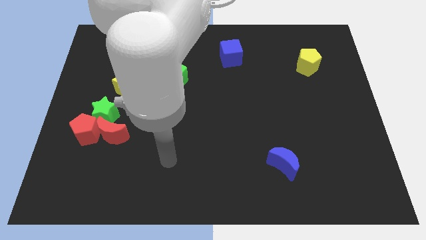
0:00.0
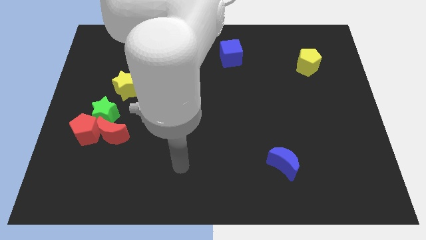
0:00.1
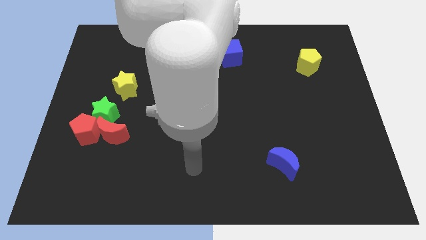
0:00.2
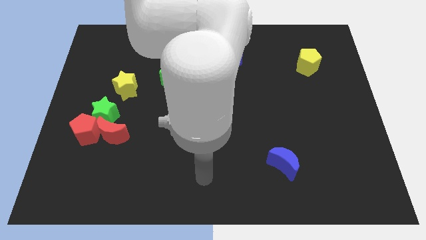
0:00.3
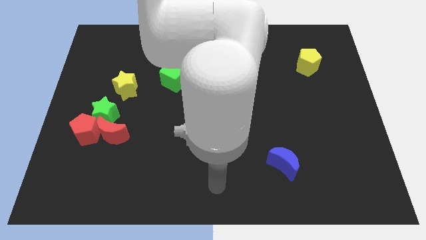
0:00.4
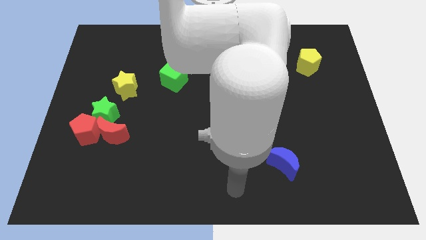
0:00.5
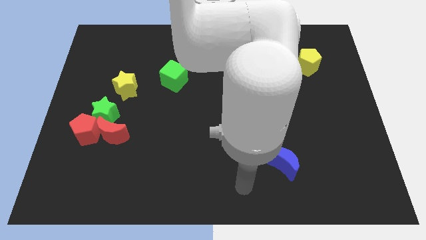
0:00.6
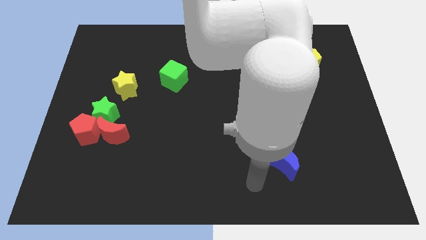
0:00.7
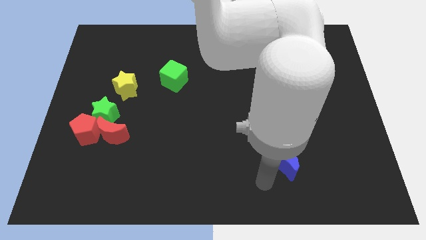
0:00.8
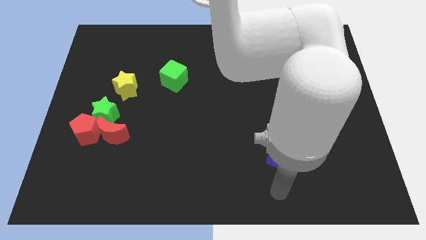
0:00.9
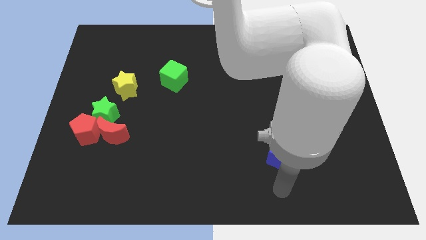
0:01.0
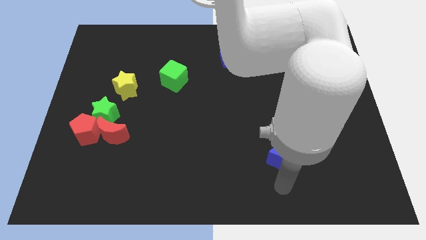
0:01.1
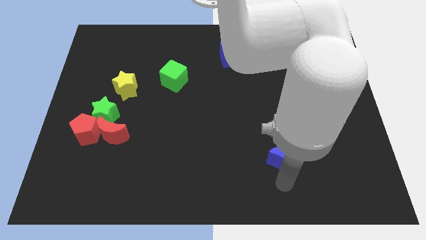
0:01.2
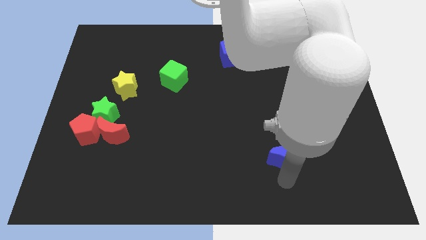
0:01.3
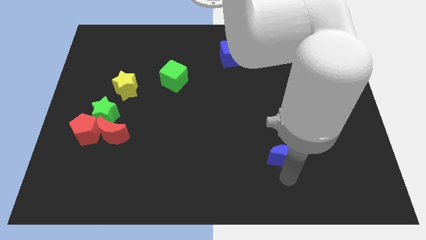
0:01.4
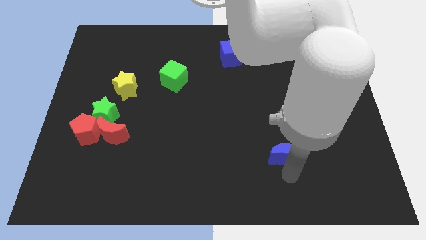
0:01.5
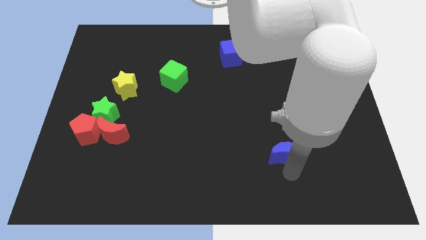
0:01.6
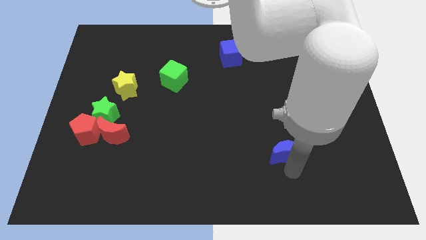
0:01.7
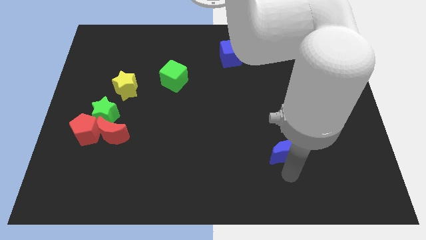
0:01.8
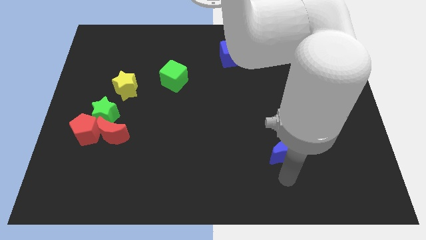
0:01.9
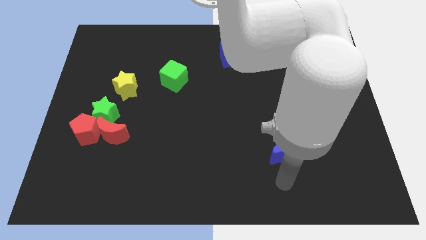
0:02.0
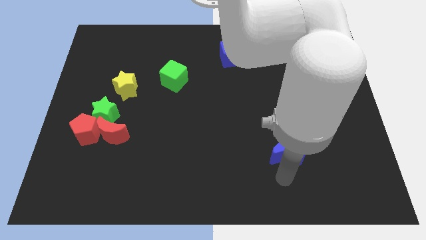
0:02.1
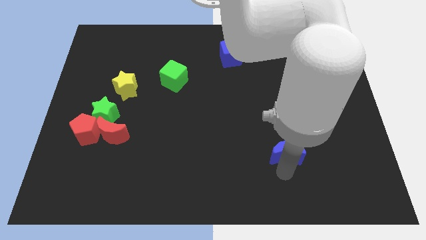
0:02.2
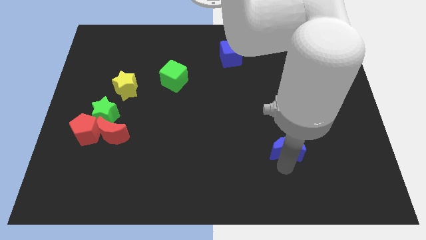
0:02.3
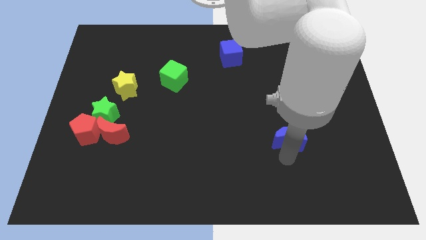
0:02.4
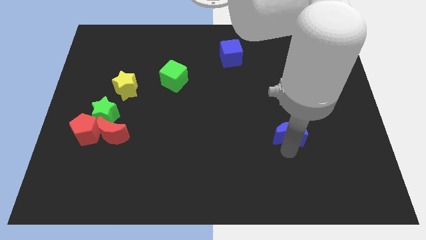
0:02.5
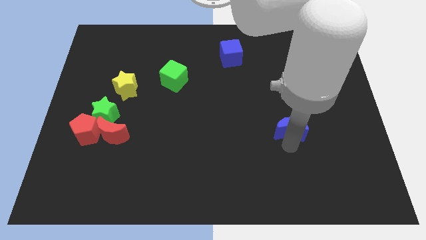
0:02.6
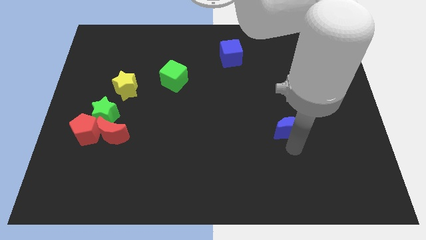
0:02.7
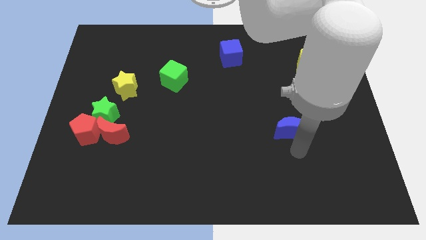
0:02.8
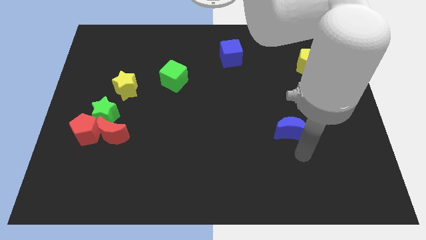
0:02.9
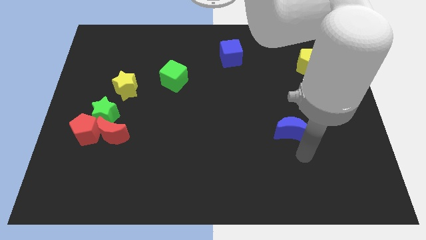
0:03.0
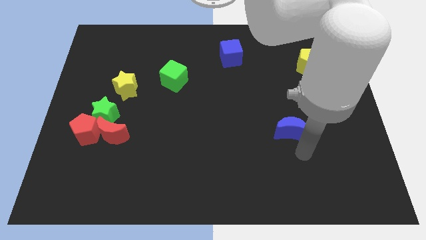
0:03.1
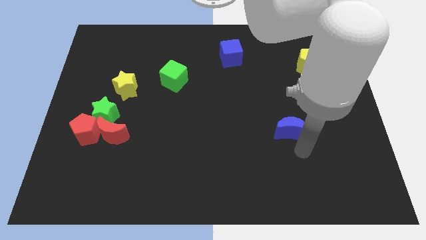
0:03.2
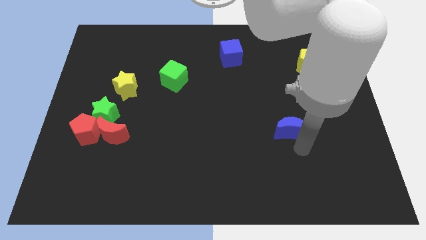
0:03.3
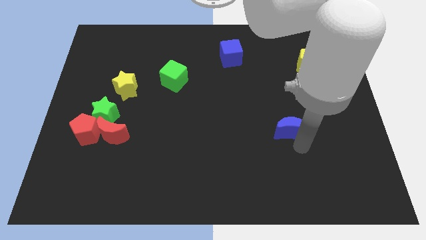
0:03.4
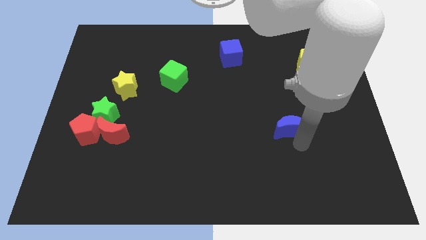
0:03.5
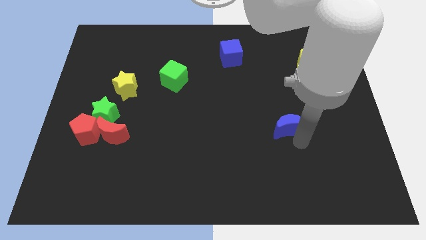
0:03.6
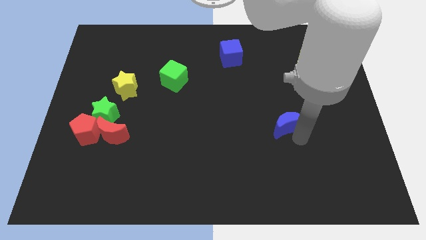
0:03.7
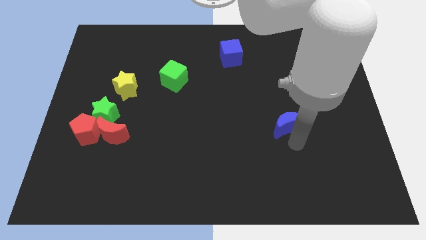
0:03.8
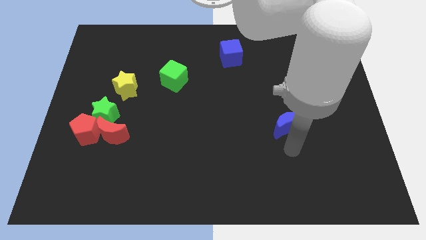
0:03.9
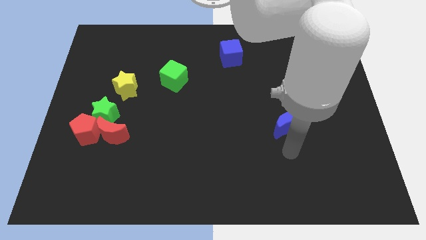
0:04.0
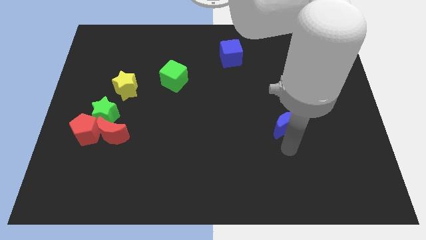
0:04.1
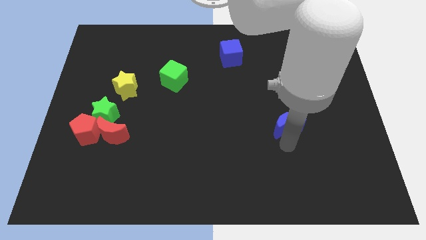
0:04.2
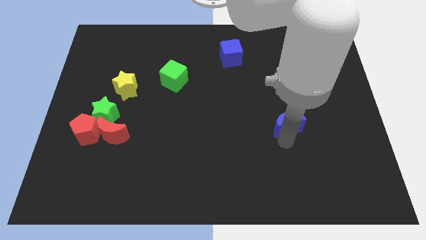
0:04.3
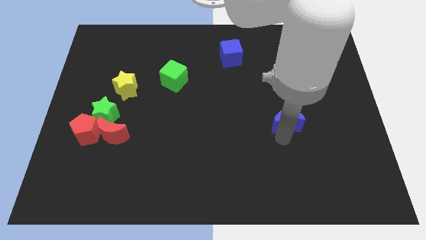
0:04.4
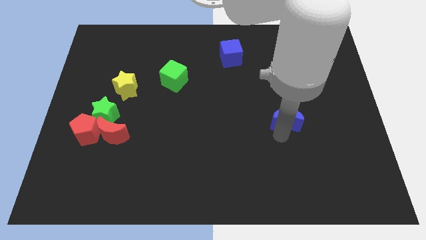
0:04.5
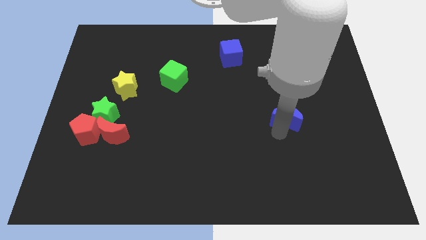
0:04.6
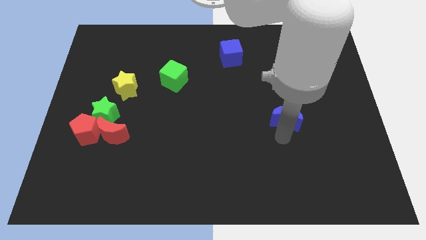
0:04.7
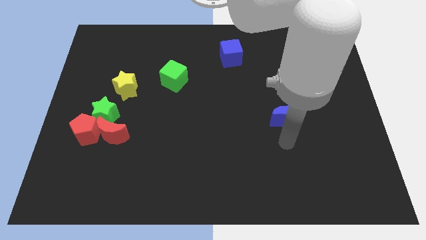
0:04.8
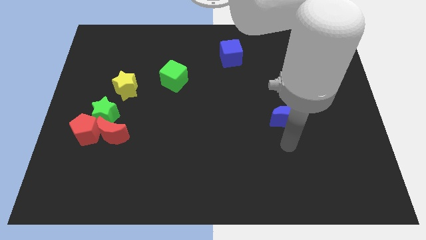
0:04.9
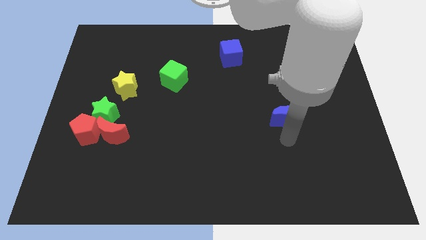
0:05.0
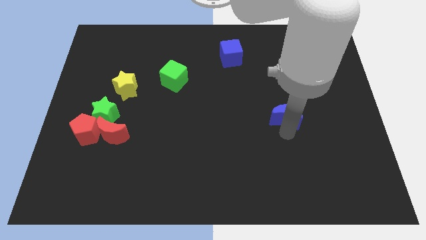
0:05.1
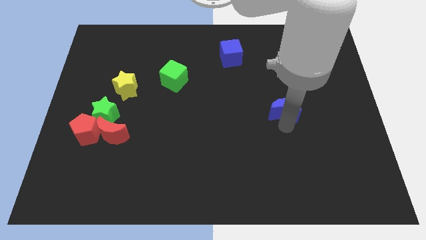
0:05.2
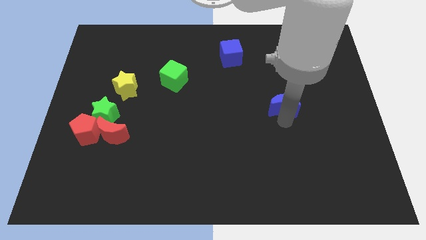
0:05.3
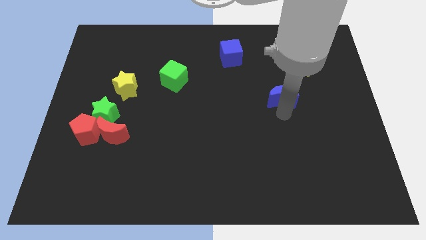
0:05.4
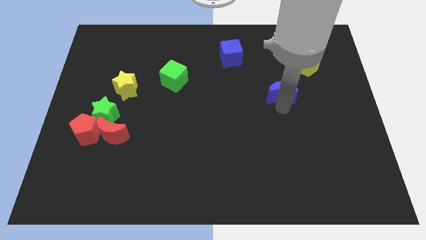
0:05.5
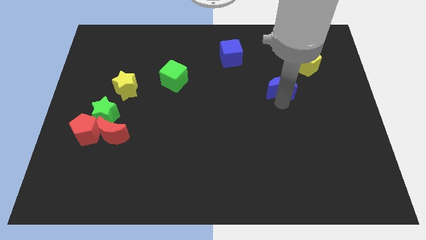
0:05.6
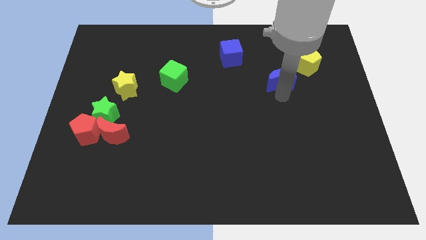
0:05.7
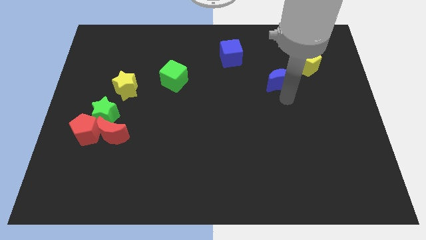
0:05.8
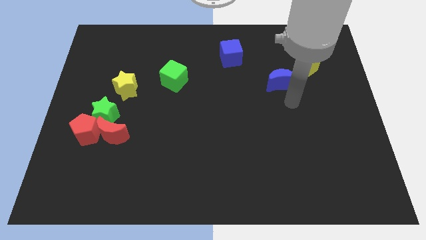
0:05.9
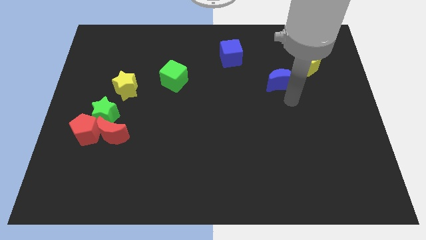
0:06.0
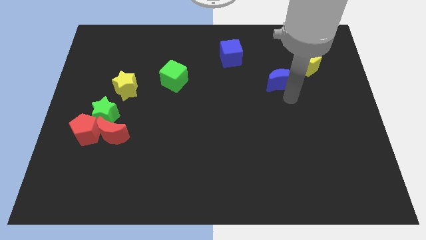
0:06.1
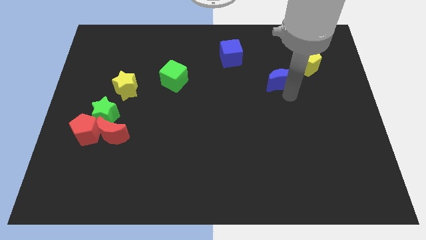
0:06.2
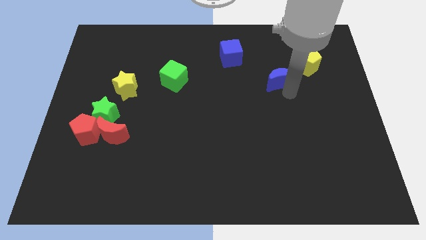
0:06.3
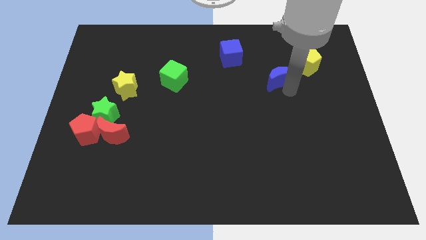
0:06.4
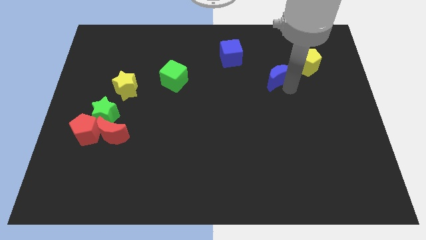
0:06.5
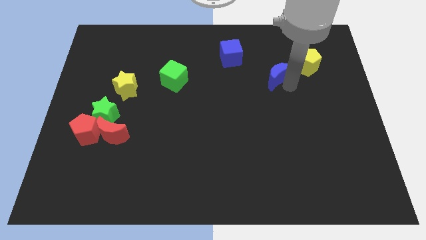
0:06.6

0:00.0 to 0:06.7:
move the blue moon just left of the yellow pentagon

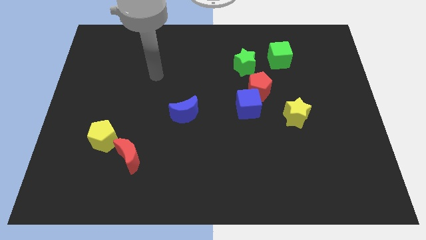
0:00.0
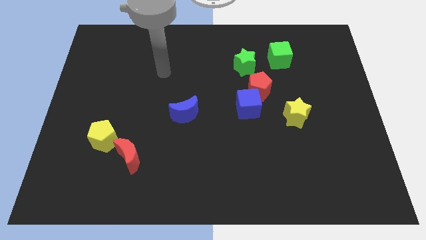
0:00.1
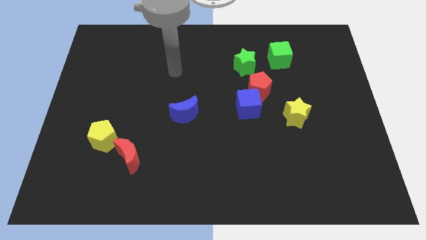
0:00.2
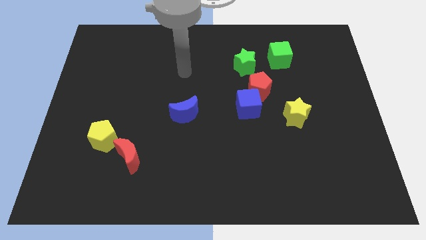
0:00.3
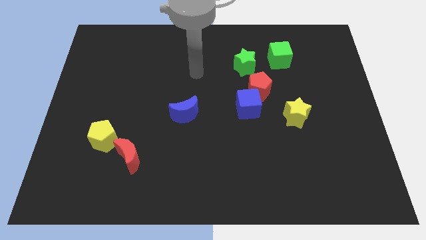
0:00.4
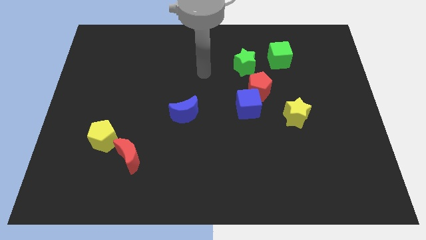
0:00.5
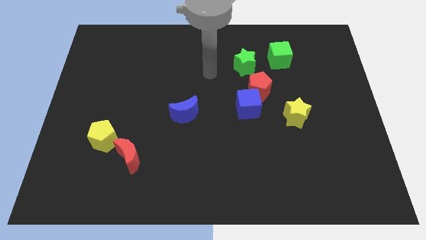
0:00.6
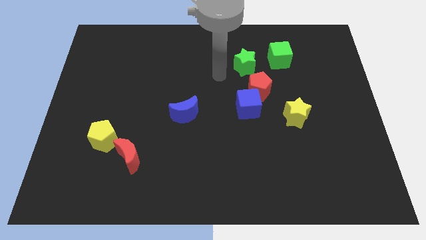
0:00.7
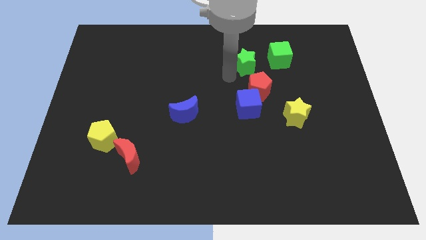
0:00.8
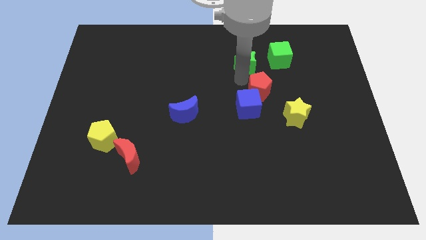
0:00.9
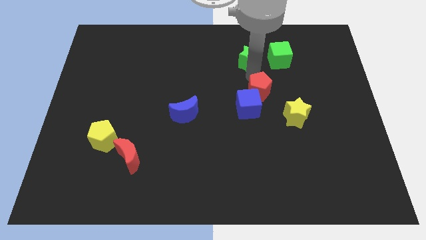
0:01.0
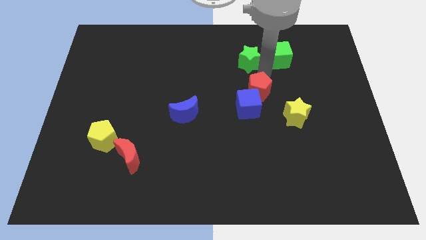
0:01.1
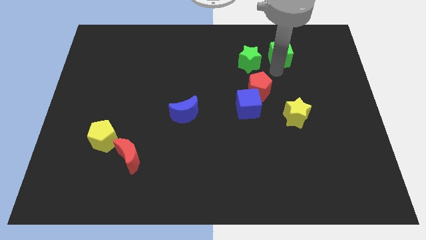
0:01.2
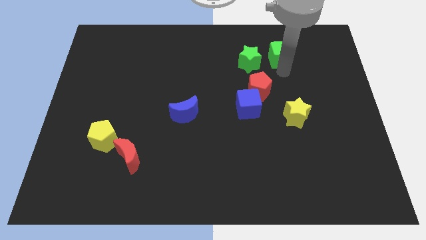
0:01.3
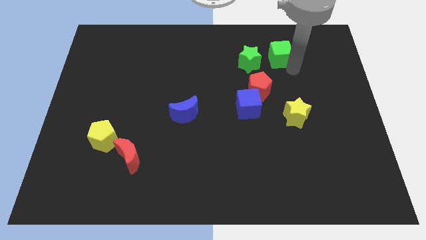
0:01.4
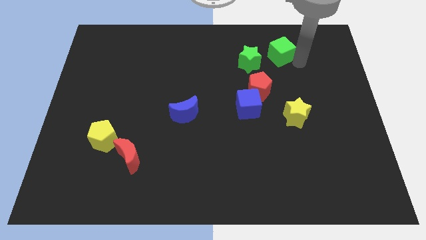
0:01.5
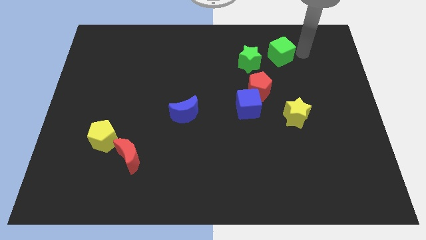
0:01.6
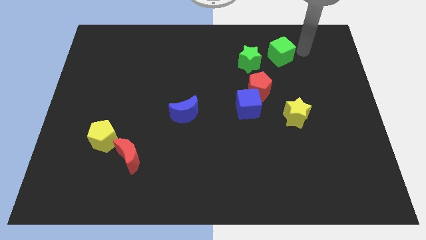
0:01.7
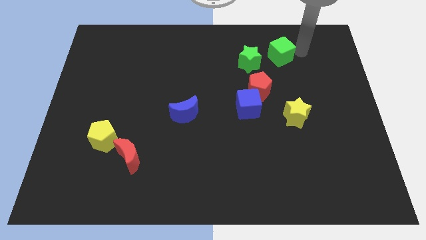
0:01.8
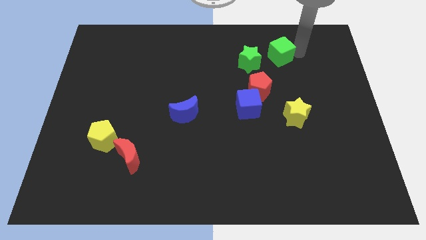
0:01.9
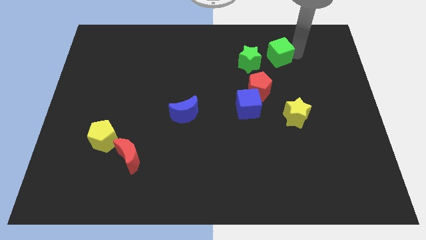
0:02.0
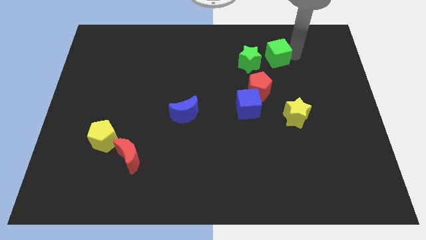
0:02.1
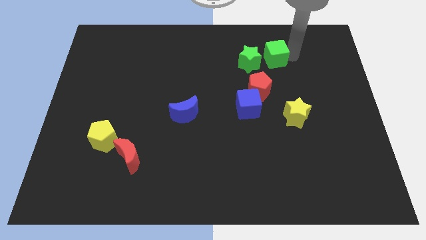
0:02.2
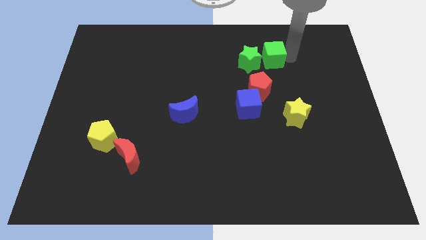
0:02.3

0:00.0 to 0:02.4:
put the green cube to the top side of the red pentagon
